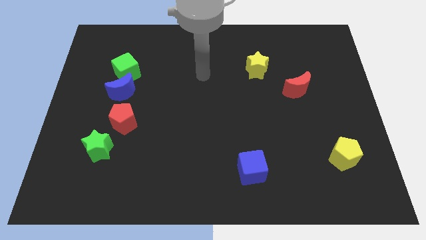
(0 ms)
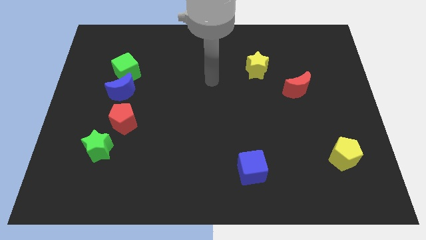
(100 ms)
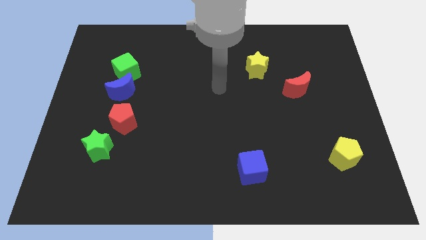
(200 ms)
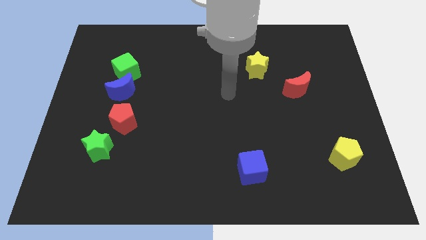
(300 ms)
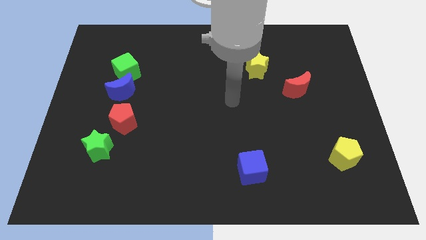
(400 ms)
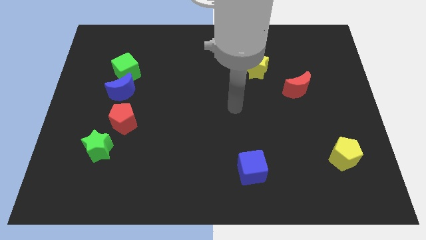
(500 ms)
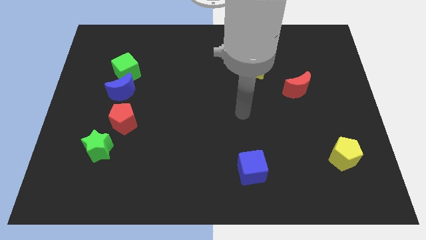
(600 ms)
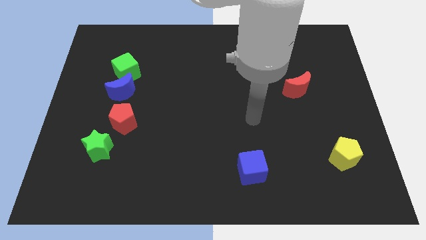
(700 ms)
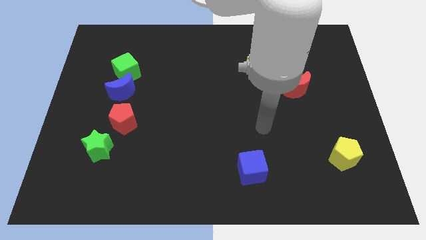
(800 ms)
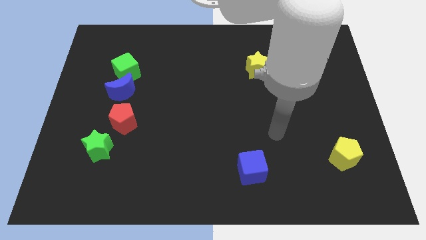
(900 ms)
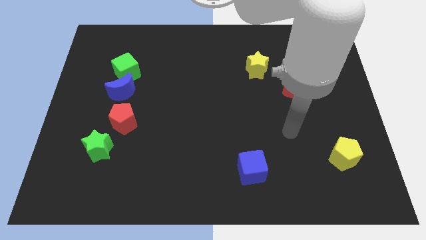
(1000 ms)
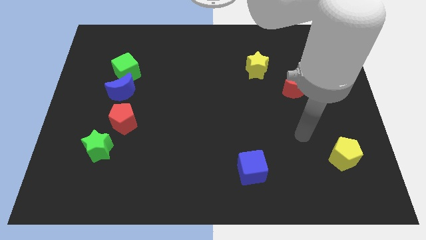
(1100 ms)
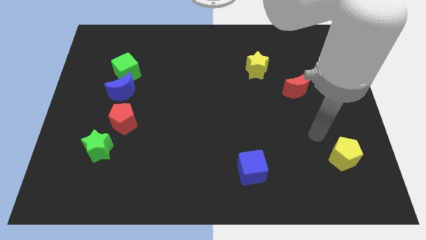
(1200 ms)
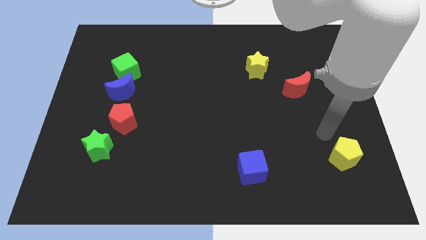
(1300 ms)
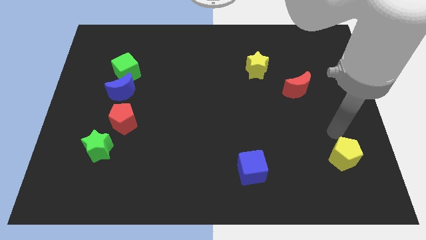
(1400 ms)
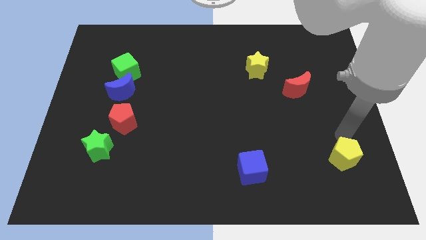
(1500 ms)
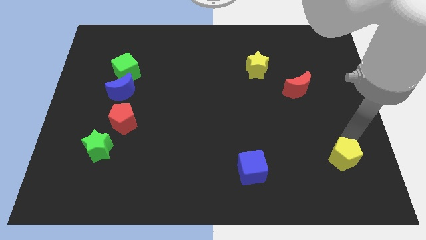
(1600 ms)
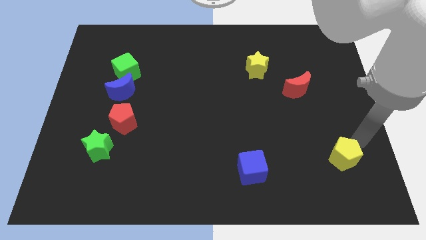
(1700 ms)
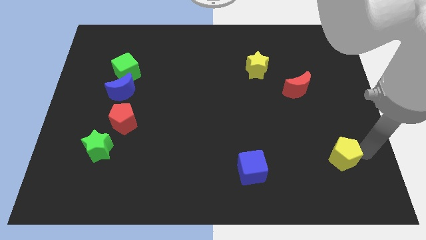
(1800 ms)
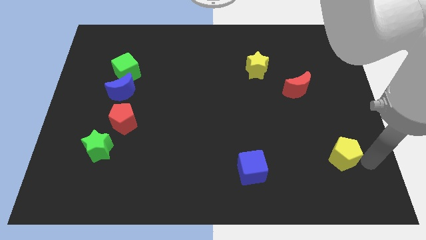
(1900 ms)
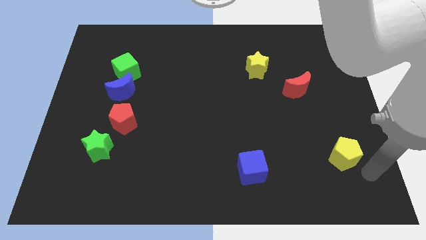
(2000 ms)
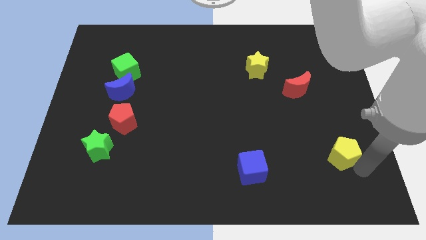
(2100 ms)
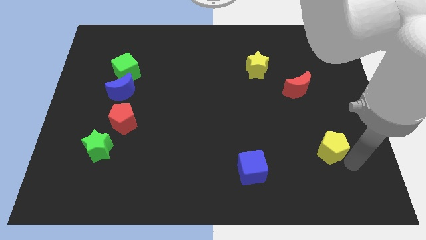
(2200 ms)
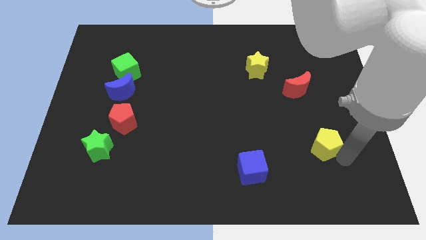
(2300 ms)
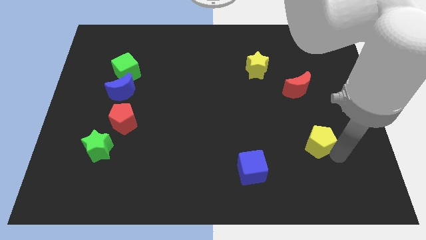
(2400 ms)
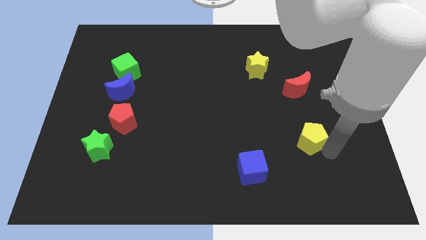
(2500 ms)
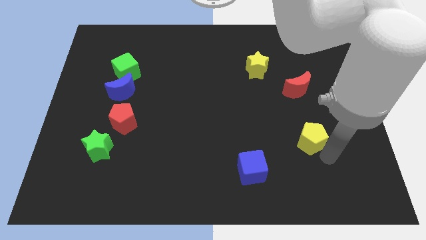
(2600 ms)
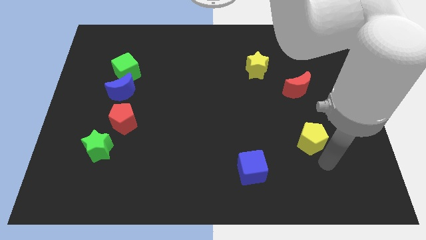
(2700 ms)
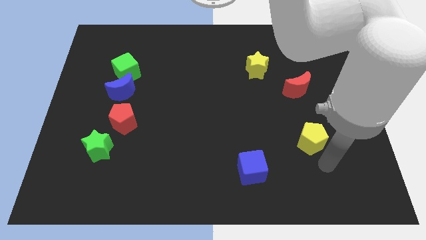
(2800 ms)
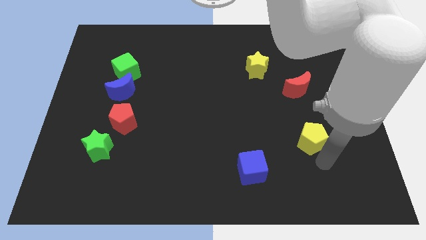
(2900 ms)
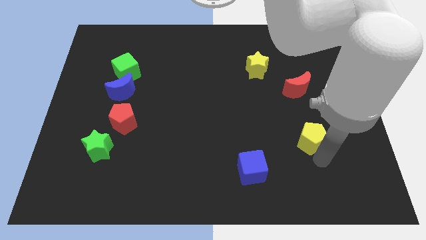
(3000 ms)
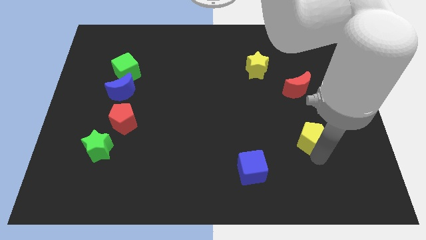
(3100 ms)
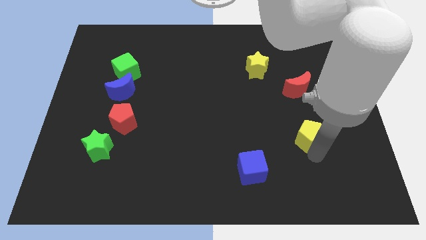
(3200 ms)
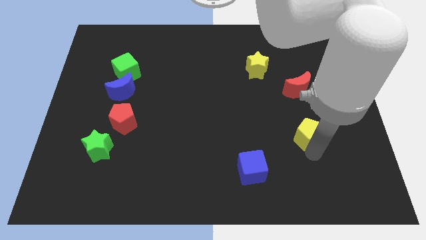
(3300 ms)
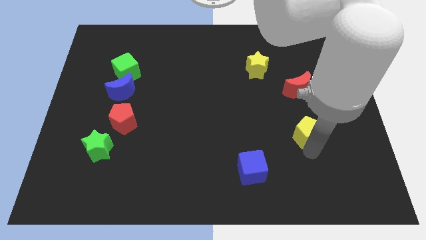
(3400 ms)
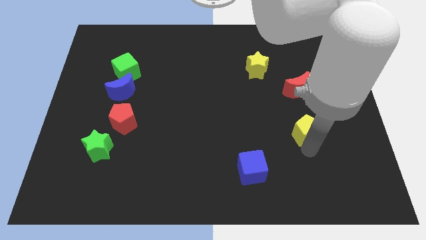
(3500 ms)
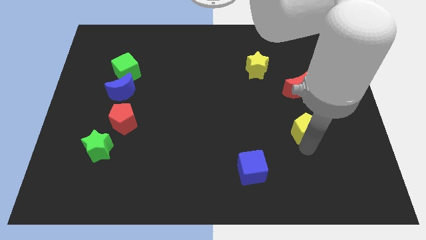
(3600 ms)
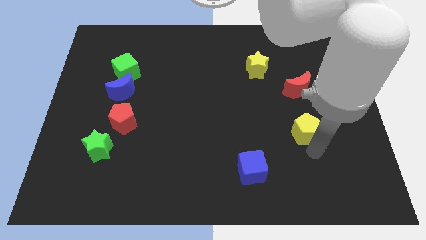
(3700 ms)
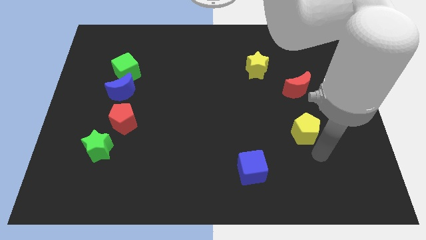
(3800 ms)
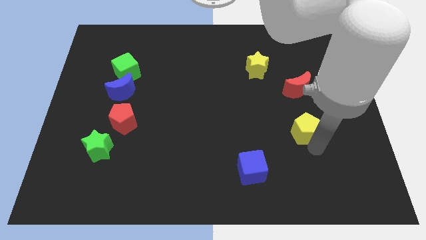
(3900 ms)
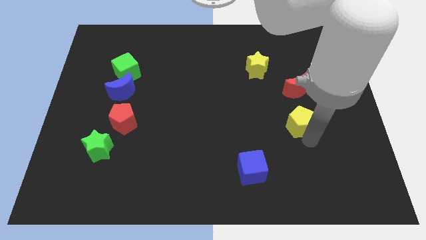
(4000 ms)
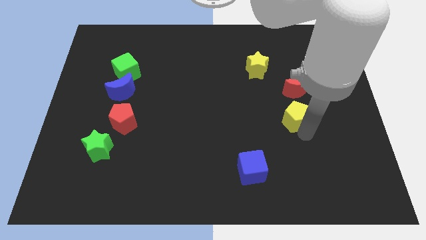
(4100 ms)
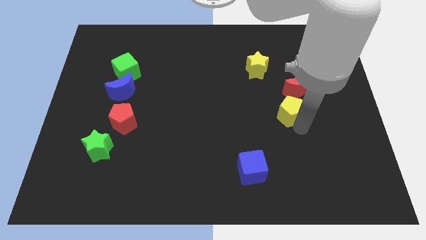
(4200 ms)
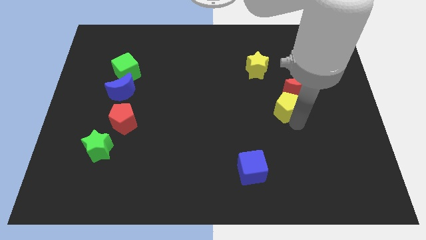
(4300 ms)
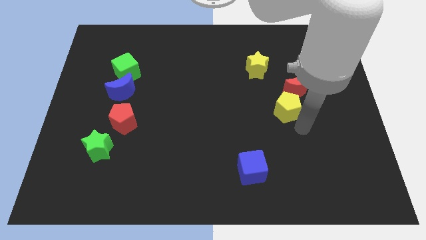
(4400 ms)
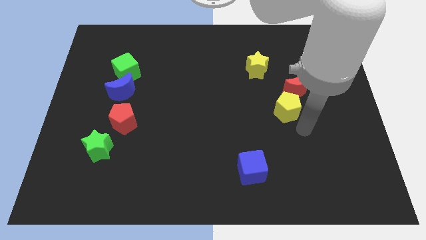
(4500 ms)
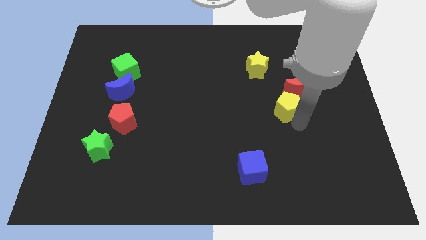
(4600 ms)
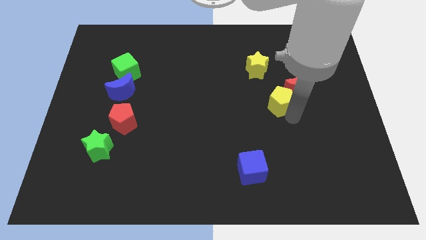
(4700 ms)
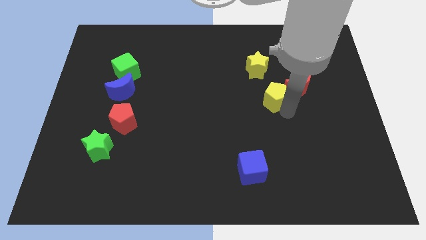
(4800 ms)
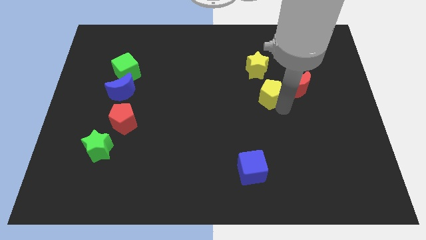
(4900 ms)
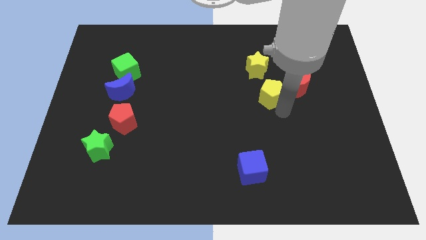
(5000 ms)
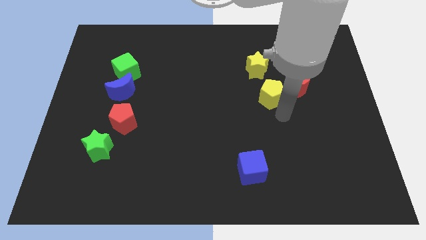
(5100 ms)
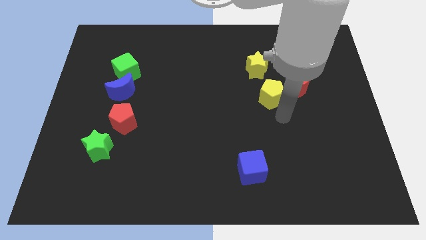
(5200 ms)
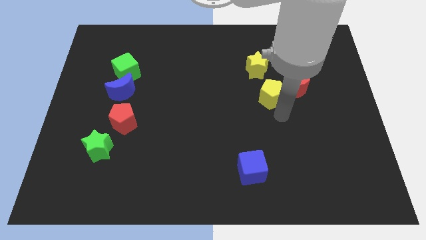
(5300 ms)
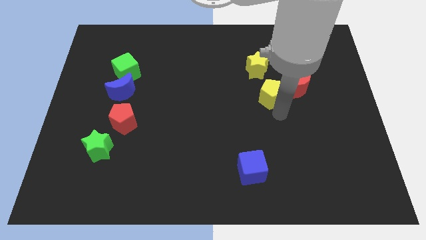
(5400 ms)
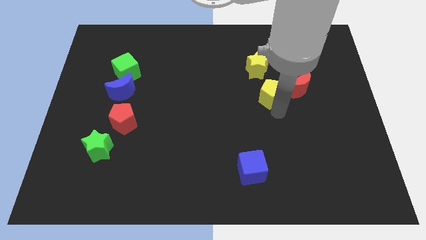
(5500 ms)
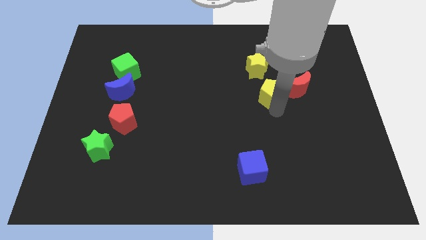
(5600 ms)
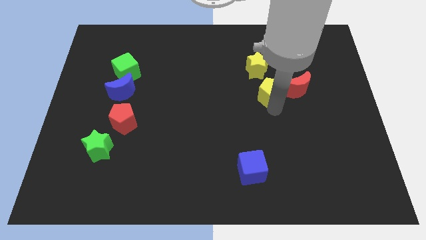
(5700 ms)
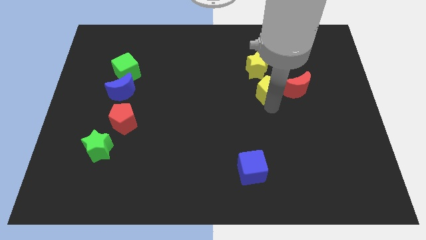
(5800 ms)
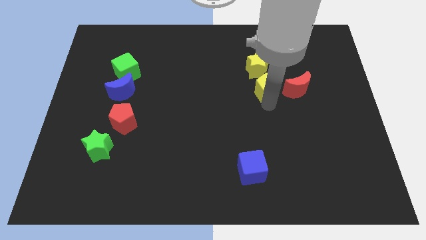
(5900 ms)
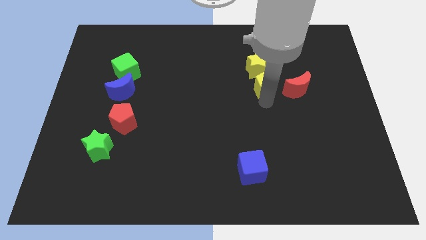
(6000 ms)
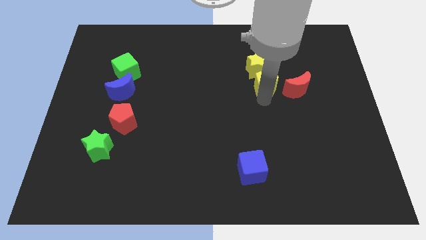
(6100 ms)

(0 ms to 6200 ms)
put the yellow pentagon to the yellow star

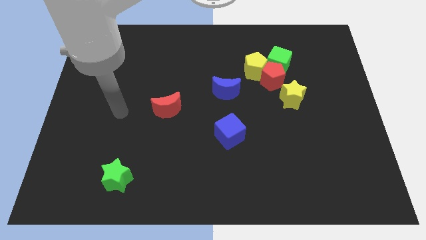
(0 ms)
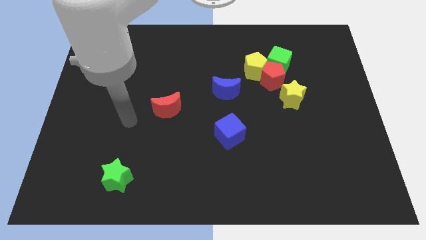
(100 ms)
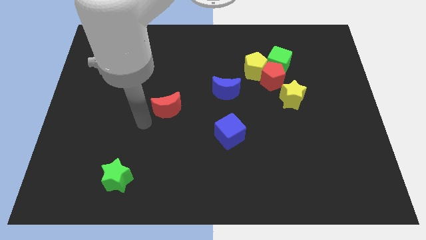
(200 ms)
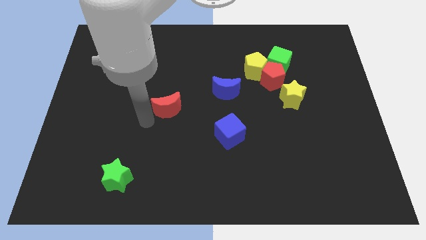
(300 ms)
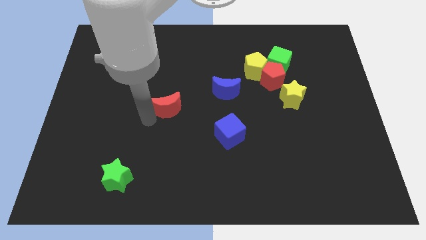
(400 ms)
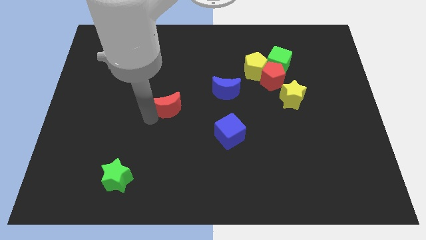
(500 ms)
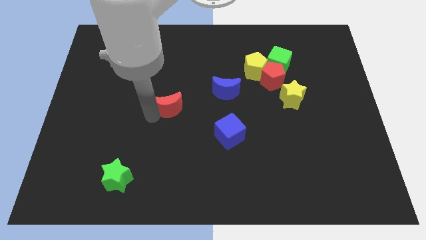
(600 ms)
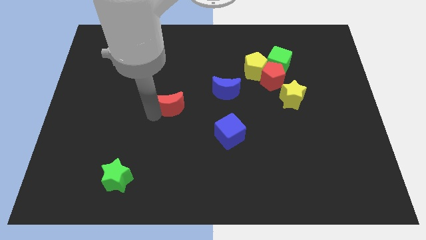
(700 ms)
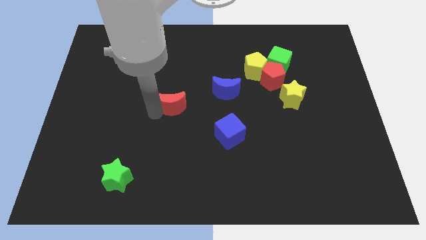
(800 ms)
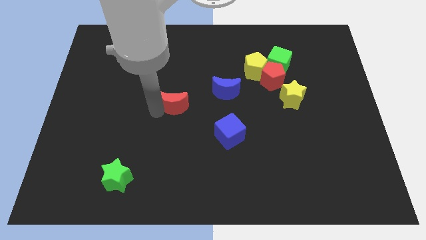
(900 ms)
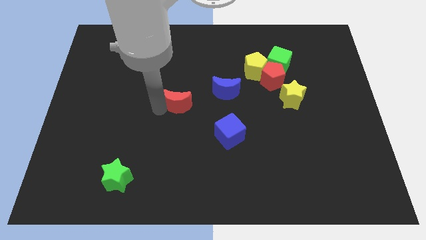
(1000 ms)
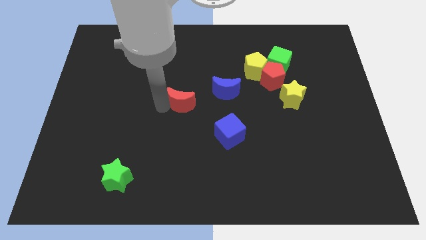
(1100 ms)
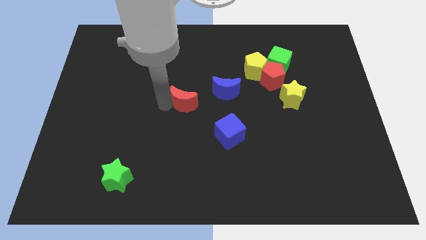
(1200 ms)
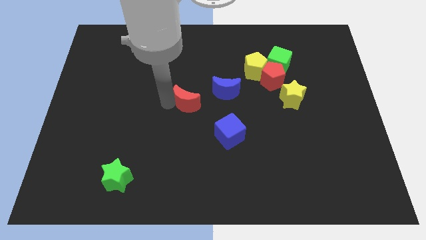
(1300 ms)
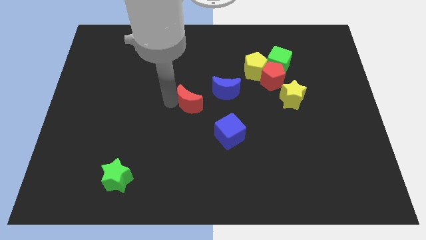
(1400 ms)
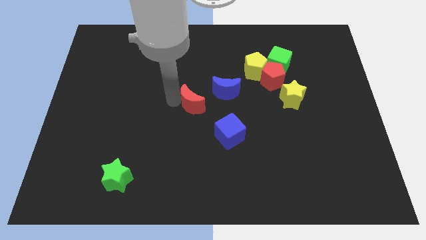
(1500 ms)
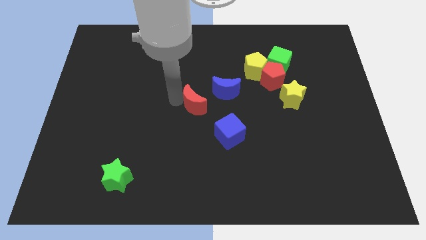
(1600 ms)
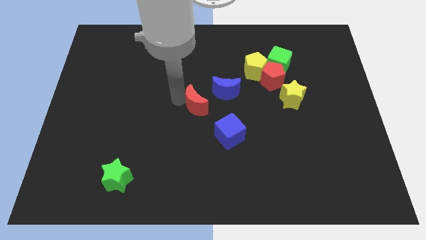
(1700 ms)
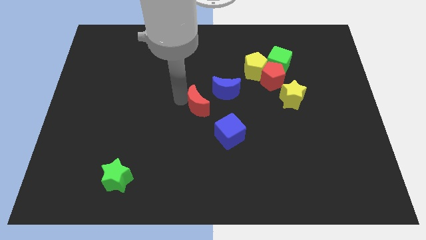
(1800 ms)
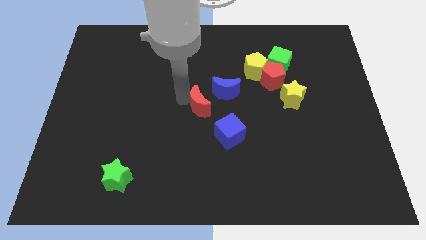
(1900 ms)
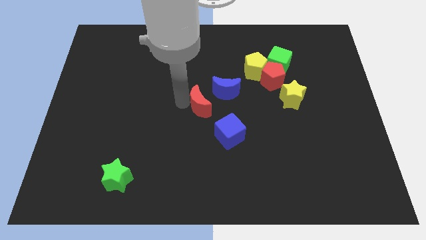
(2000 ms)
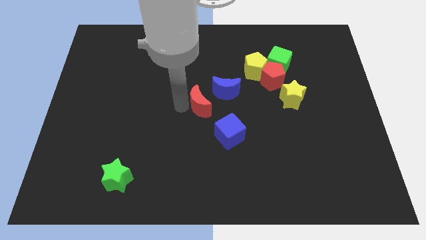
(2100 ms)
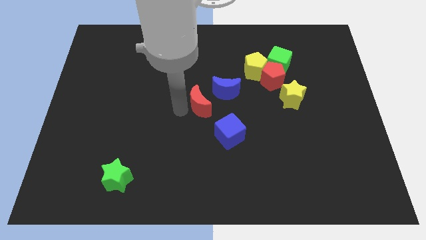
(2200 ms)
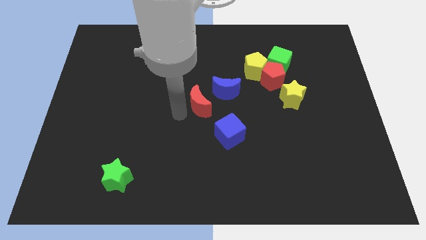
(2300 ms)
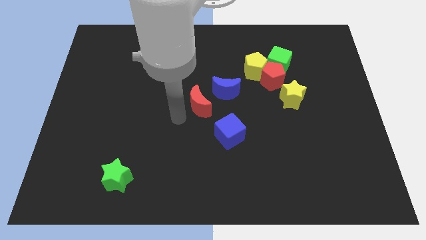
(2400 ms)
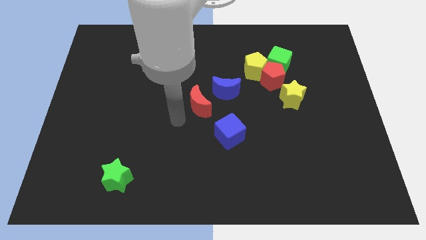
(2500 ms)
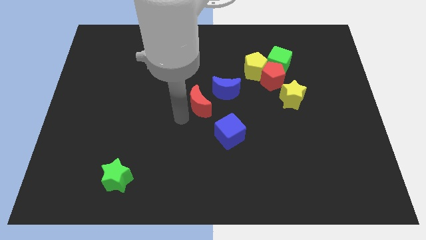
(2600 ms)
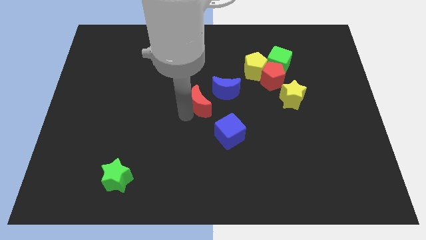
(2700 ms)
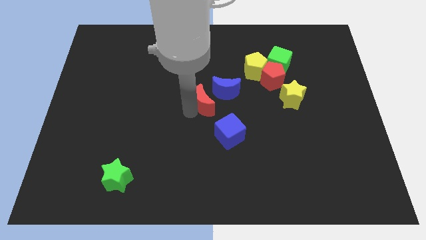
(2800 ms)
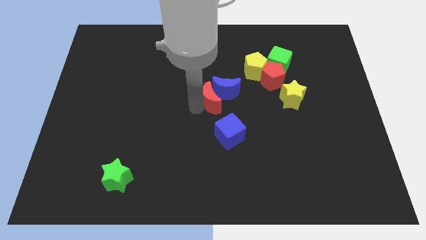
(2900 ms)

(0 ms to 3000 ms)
slide the red moon towards the blue moon
